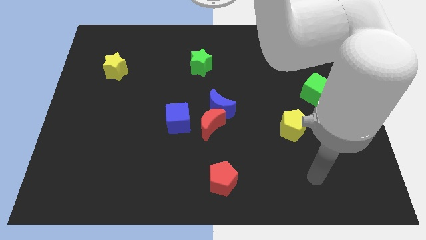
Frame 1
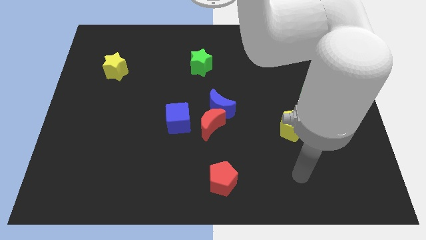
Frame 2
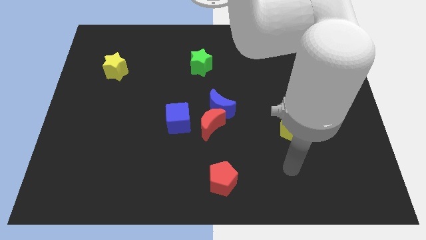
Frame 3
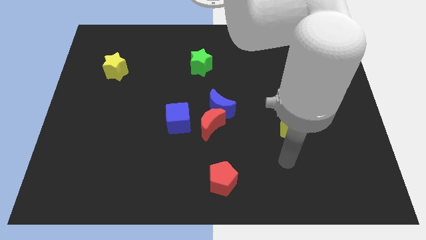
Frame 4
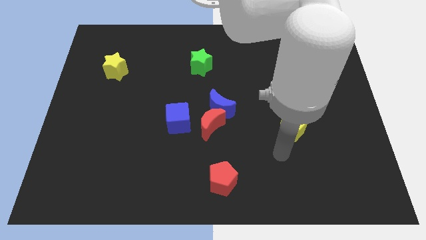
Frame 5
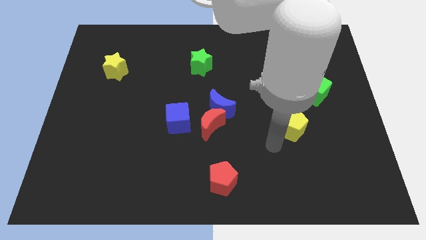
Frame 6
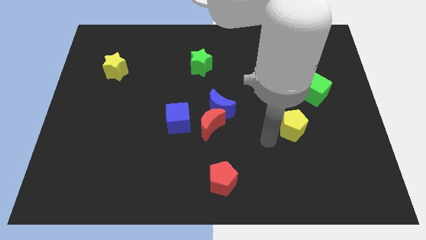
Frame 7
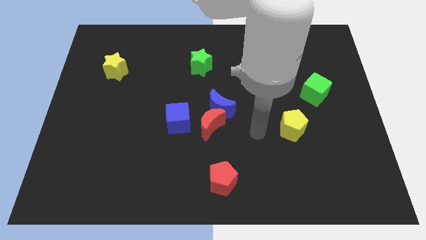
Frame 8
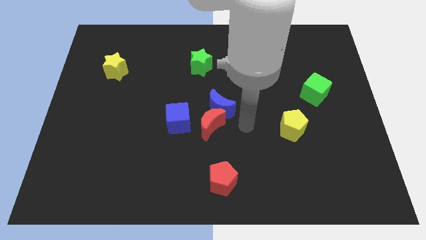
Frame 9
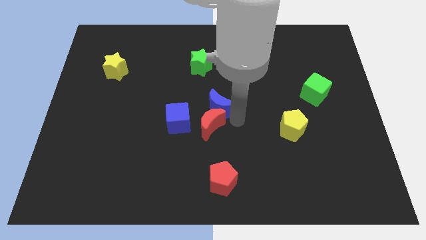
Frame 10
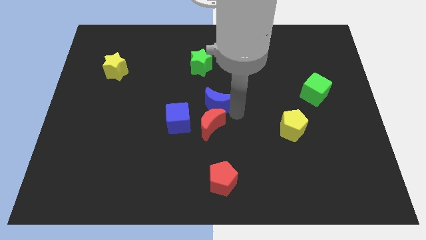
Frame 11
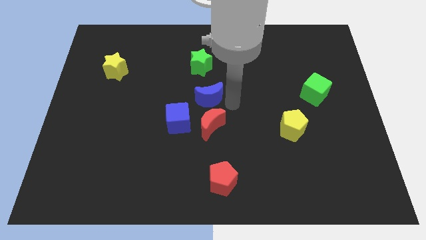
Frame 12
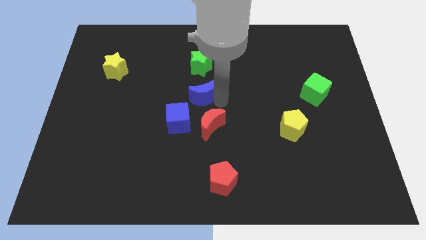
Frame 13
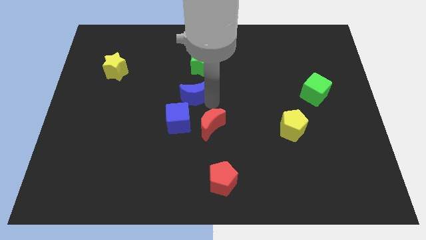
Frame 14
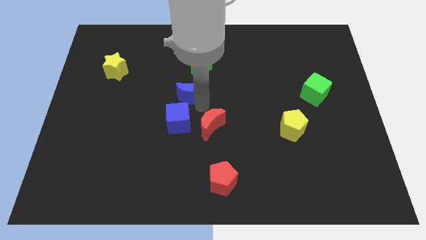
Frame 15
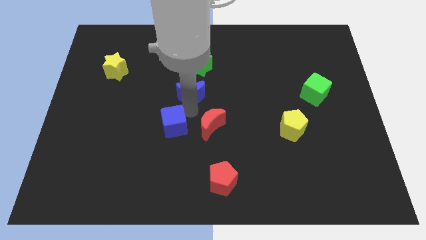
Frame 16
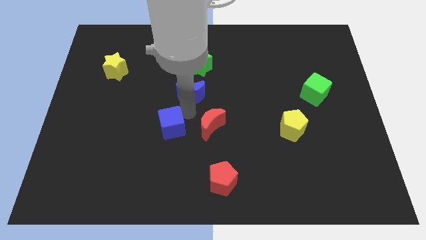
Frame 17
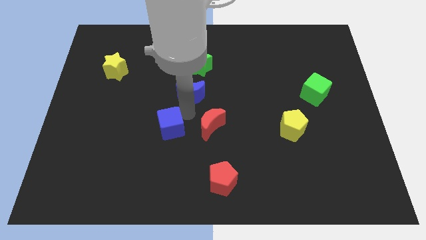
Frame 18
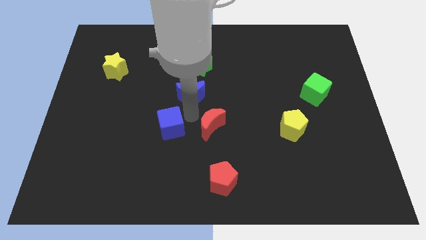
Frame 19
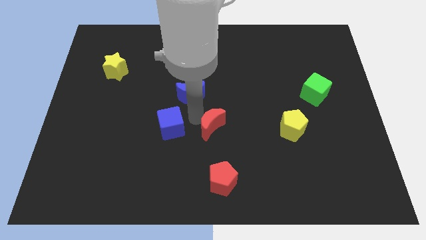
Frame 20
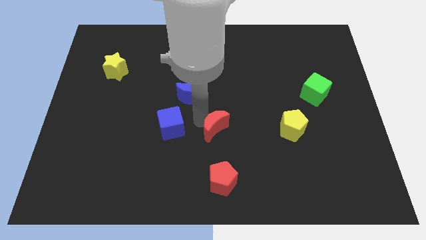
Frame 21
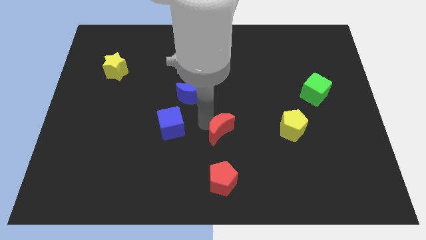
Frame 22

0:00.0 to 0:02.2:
pull the red moon apart from the blue moon and blue cube

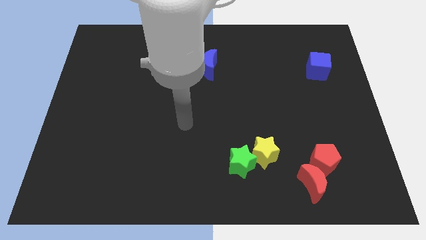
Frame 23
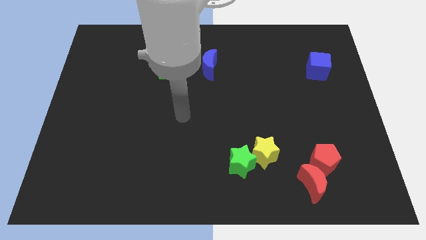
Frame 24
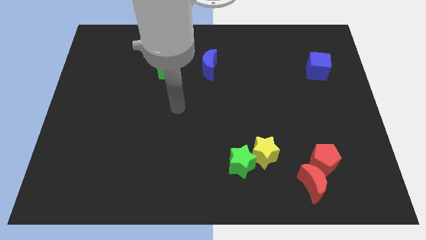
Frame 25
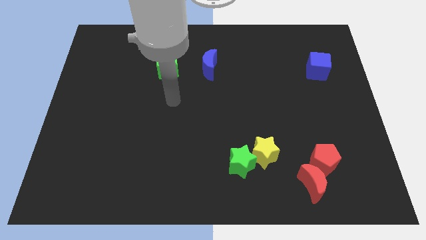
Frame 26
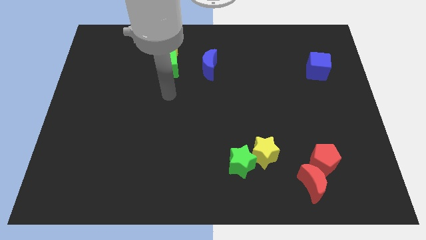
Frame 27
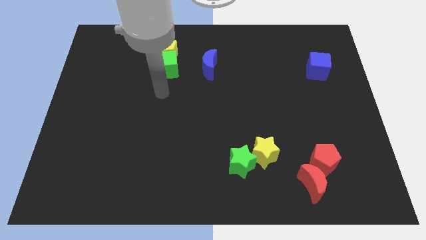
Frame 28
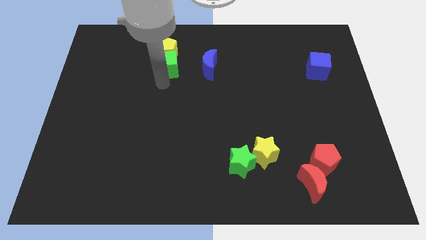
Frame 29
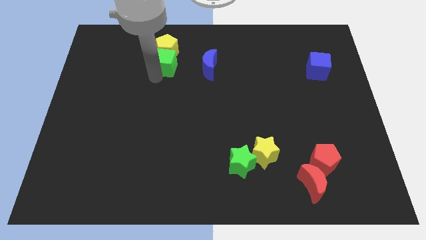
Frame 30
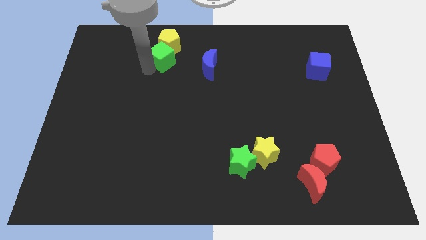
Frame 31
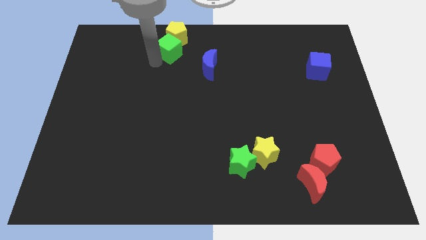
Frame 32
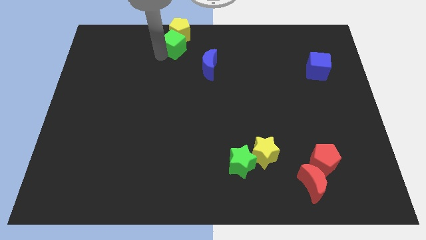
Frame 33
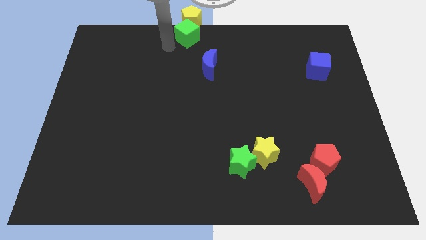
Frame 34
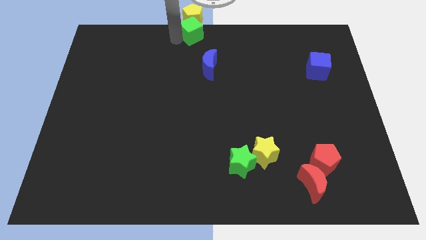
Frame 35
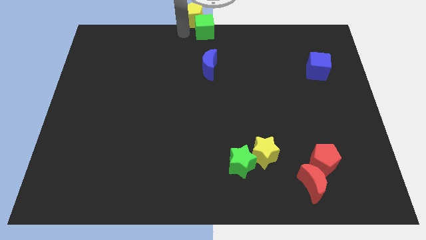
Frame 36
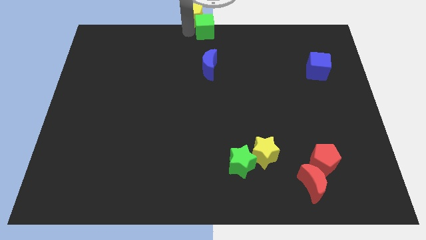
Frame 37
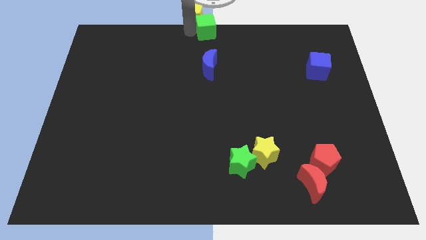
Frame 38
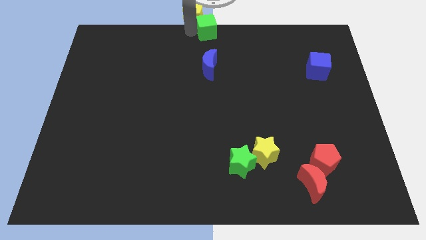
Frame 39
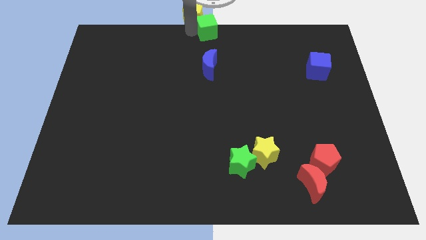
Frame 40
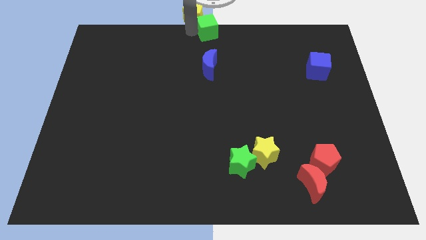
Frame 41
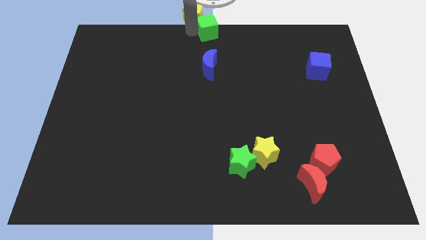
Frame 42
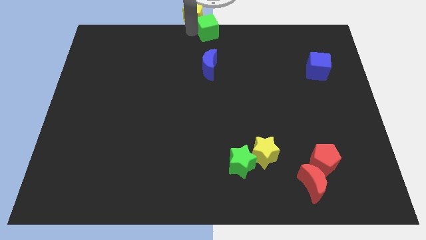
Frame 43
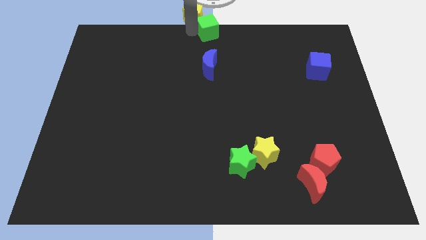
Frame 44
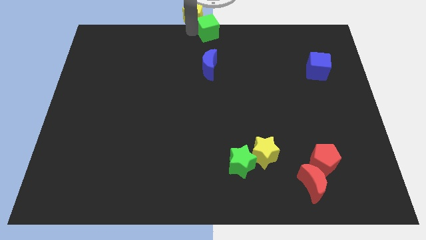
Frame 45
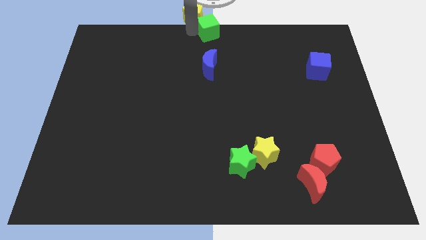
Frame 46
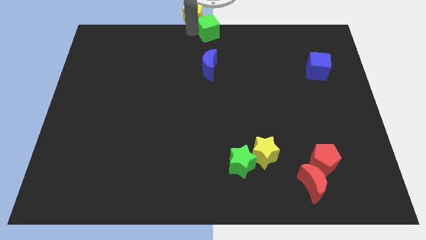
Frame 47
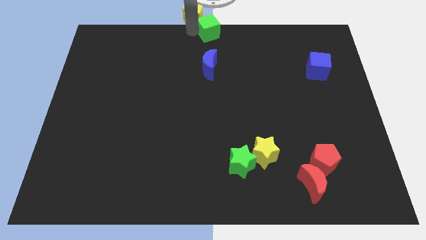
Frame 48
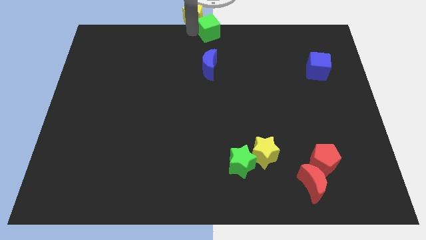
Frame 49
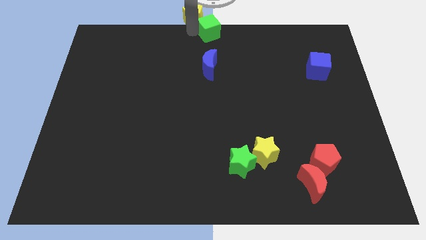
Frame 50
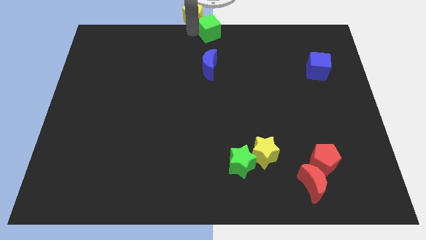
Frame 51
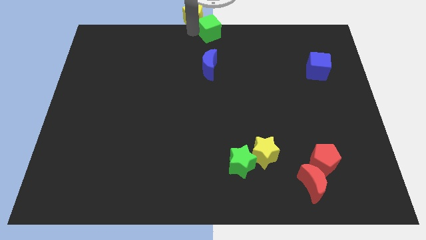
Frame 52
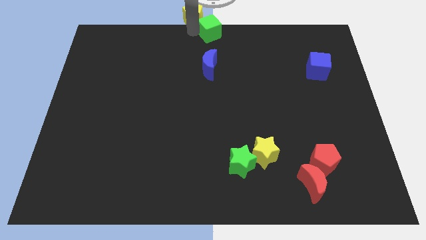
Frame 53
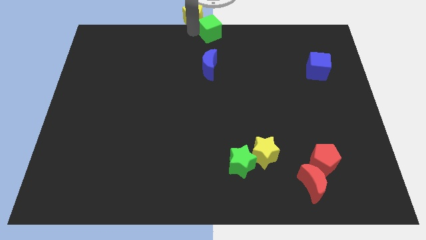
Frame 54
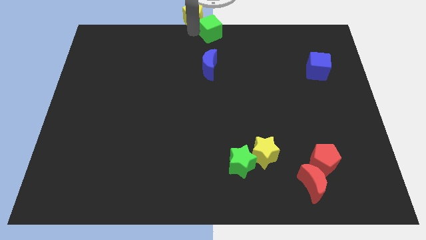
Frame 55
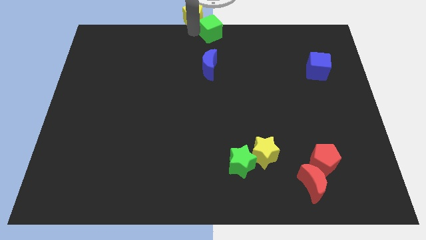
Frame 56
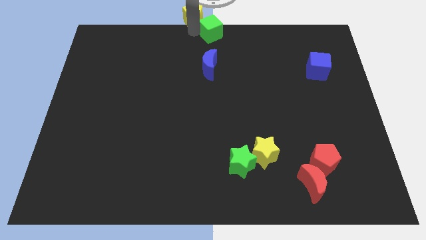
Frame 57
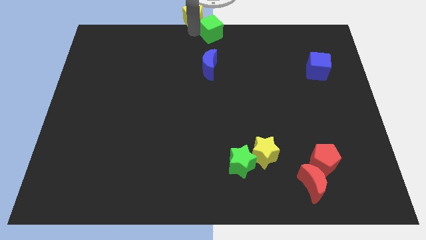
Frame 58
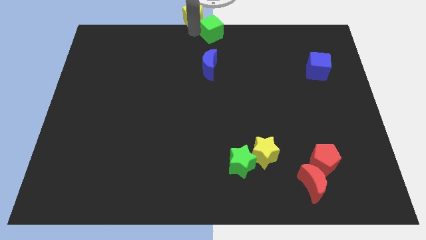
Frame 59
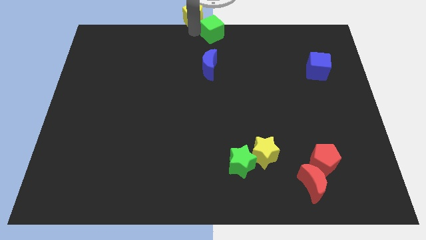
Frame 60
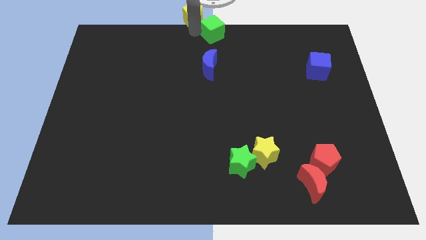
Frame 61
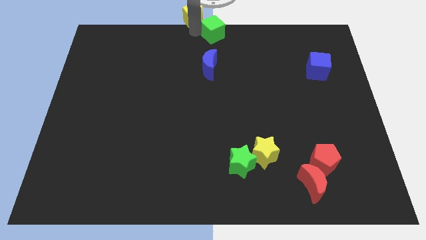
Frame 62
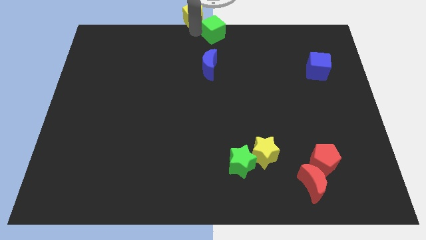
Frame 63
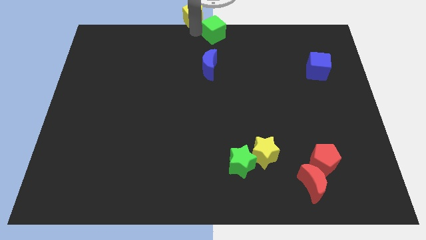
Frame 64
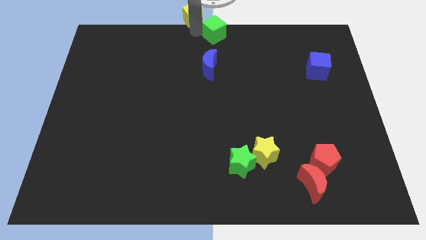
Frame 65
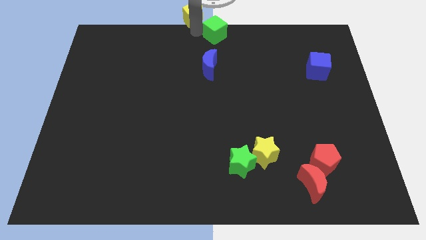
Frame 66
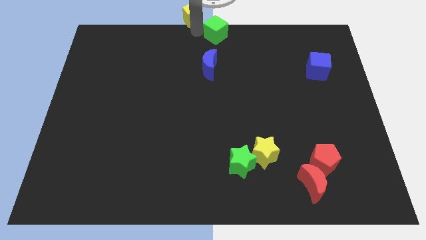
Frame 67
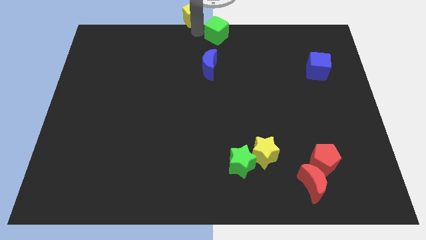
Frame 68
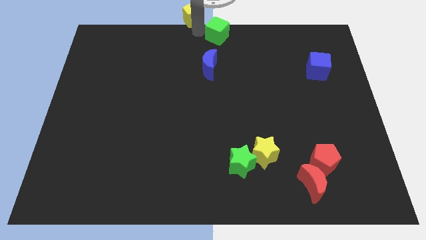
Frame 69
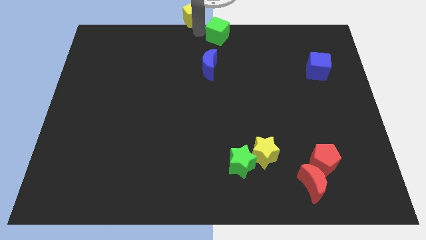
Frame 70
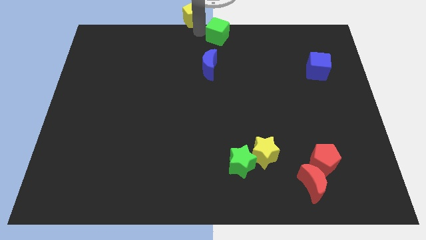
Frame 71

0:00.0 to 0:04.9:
move the green cube away from the yellow pentagon

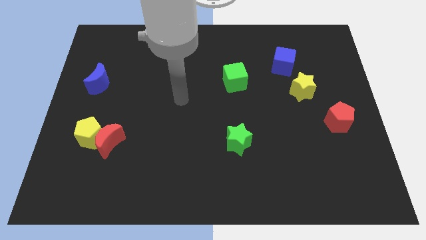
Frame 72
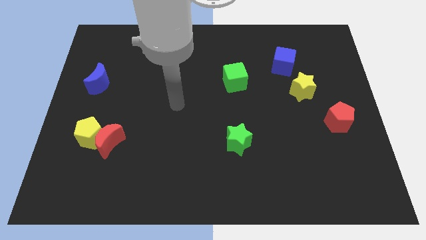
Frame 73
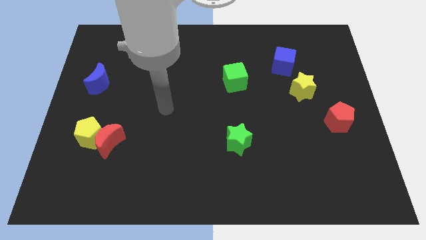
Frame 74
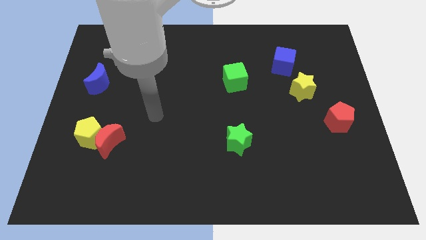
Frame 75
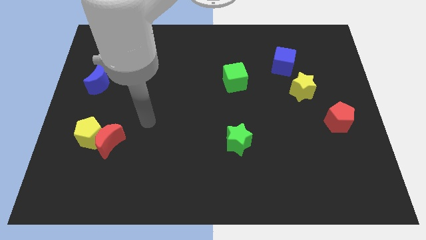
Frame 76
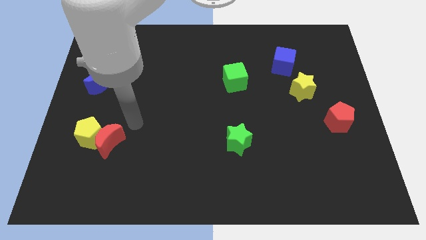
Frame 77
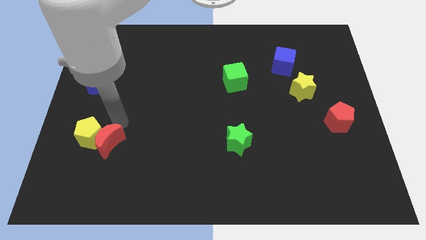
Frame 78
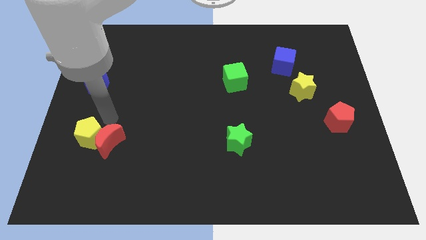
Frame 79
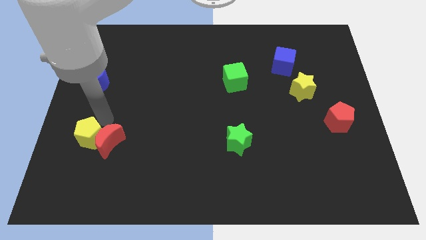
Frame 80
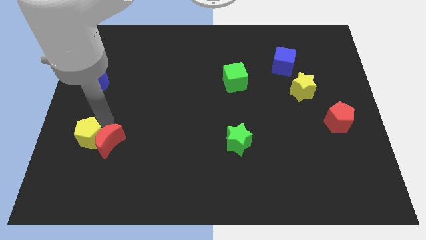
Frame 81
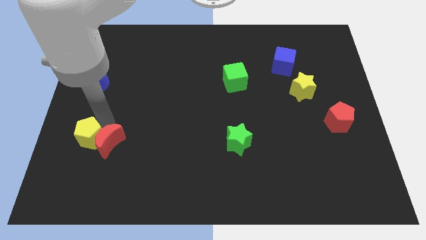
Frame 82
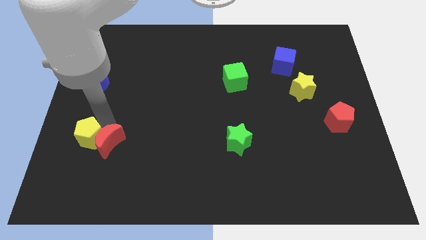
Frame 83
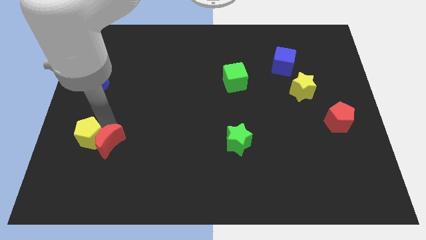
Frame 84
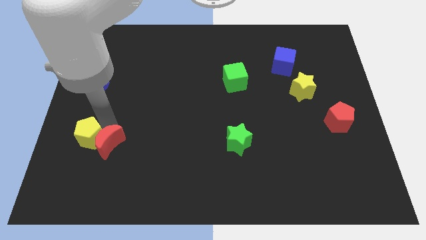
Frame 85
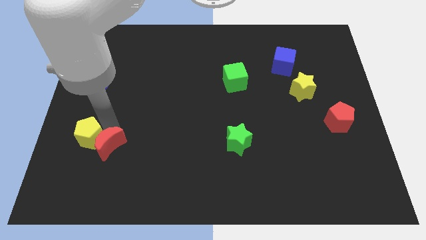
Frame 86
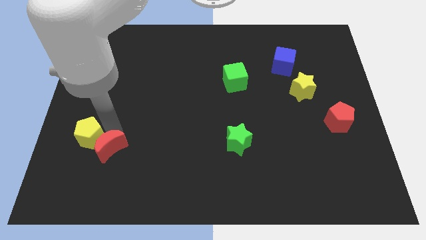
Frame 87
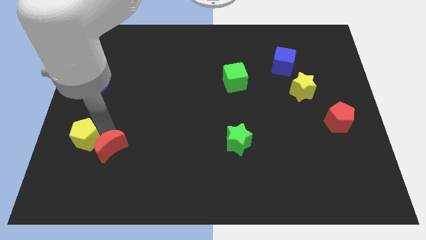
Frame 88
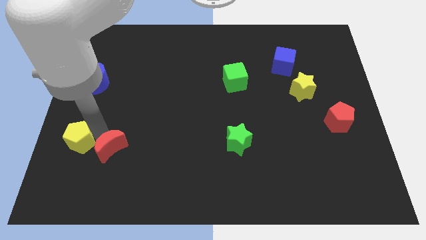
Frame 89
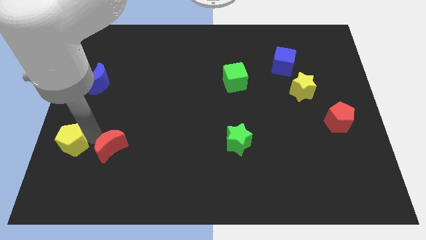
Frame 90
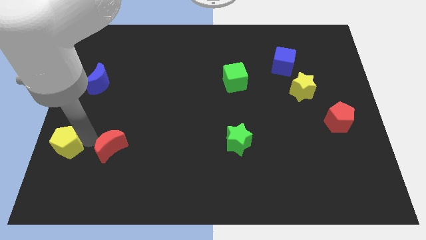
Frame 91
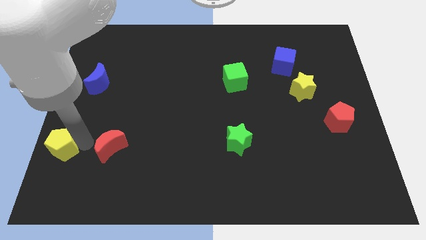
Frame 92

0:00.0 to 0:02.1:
move the red moon away from the yellow pentagon

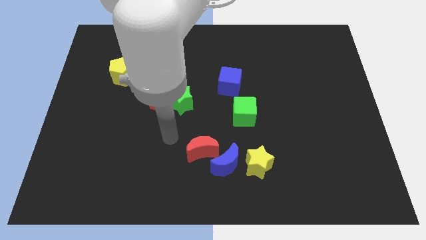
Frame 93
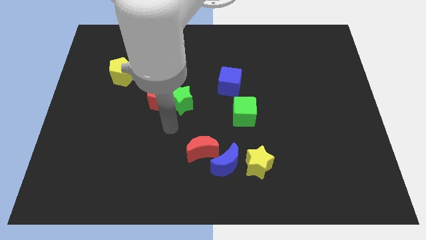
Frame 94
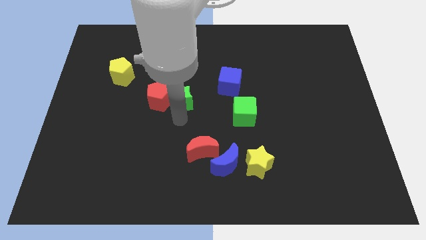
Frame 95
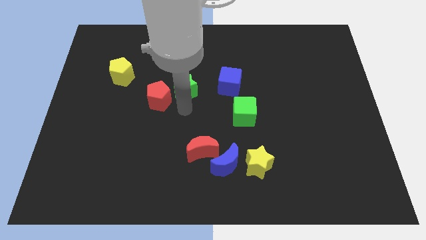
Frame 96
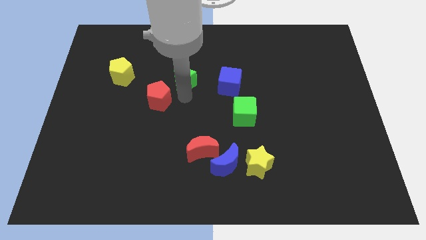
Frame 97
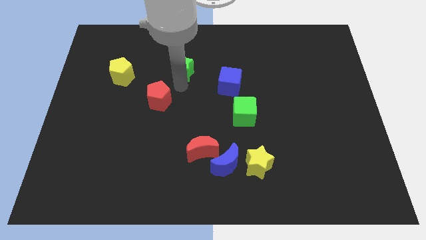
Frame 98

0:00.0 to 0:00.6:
separate the red pentagon from the green star
